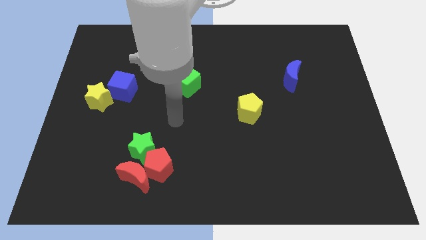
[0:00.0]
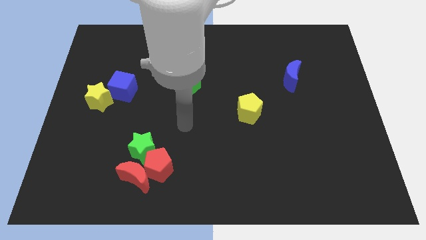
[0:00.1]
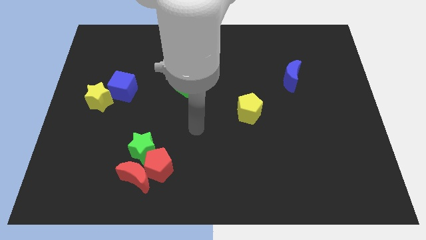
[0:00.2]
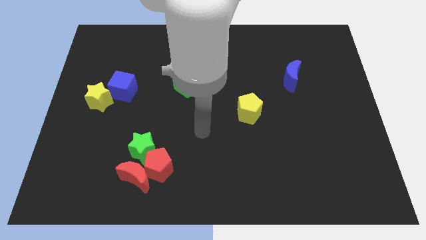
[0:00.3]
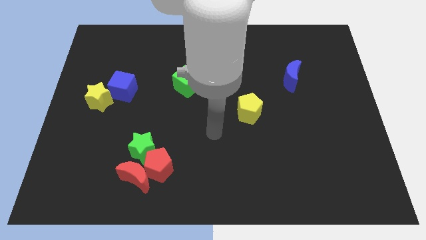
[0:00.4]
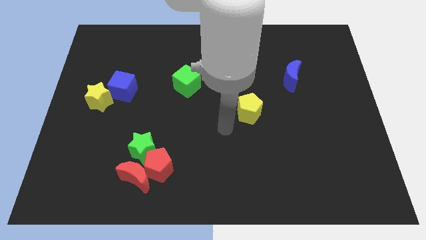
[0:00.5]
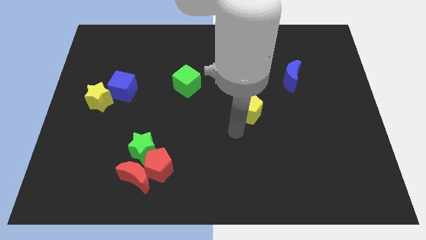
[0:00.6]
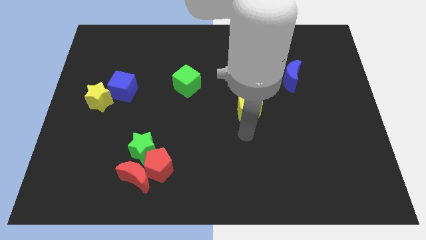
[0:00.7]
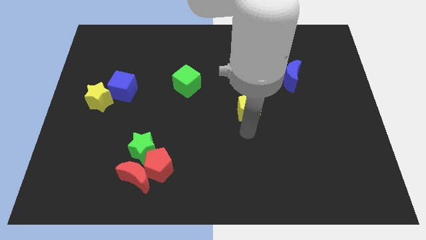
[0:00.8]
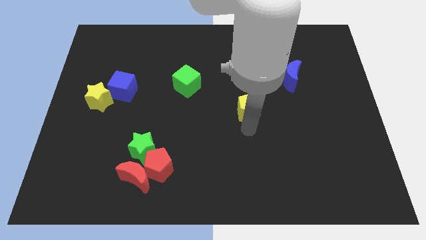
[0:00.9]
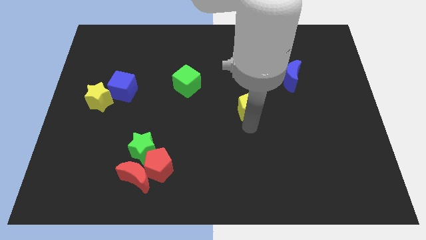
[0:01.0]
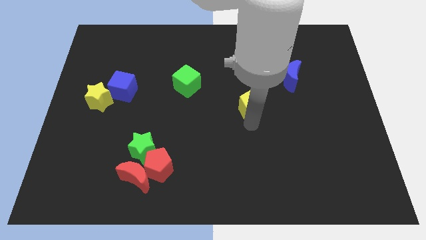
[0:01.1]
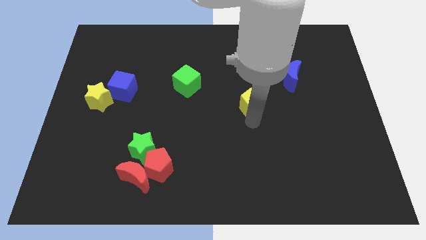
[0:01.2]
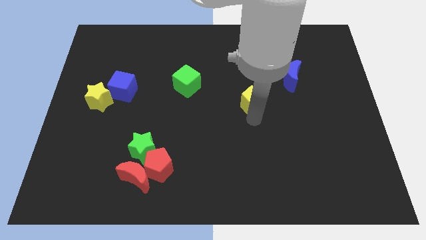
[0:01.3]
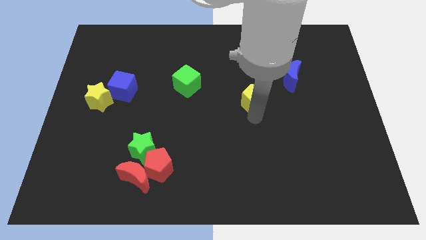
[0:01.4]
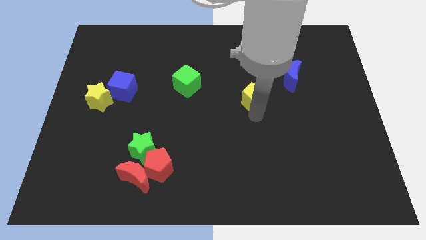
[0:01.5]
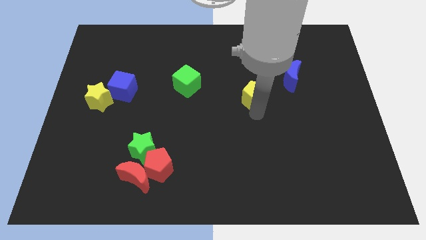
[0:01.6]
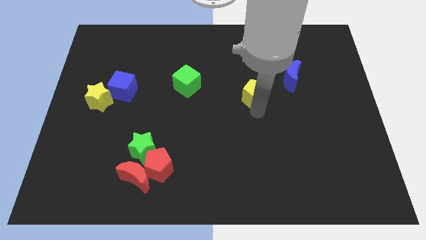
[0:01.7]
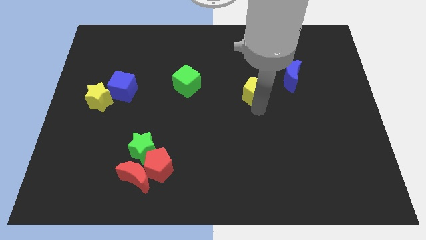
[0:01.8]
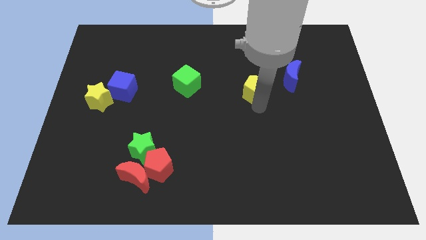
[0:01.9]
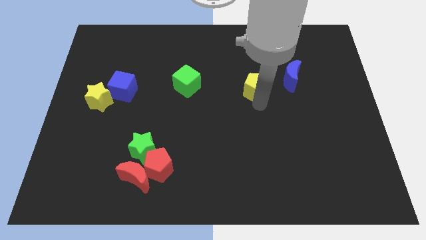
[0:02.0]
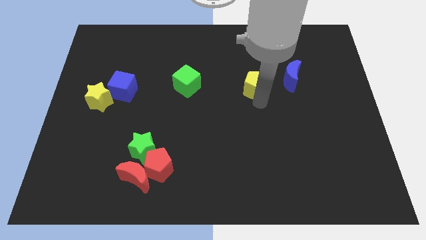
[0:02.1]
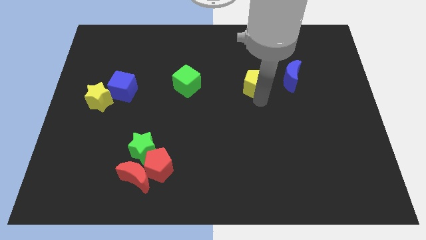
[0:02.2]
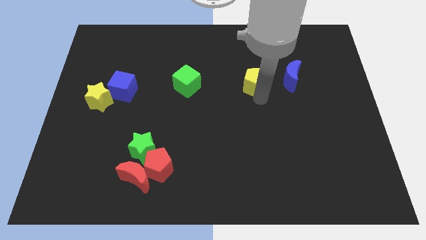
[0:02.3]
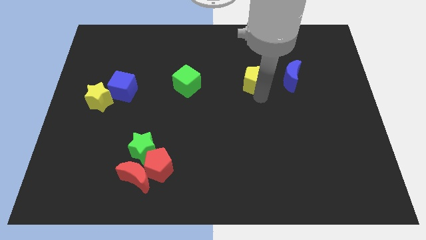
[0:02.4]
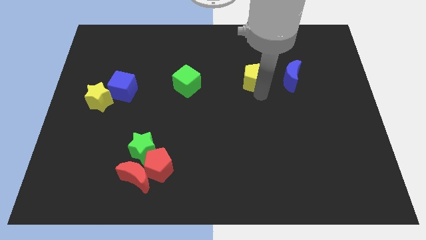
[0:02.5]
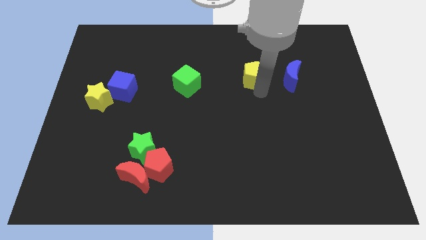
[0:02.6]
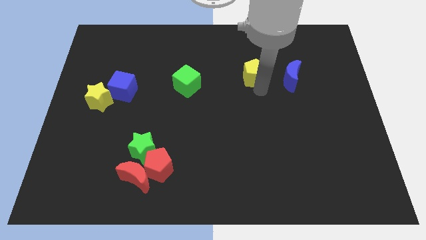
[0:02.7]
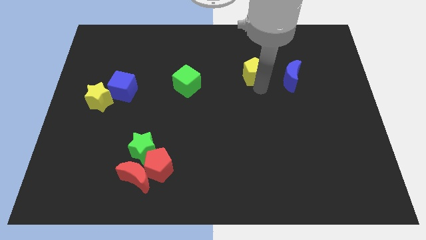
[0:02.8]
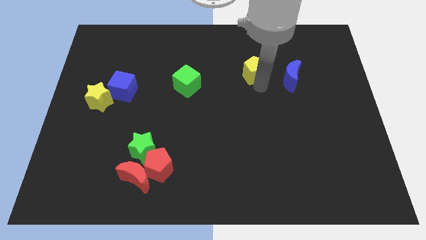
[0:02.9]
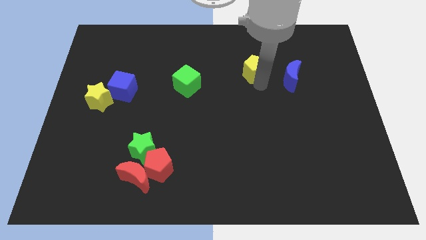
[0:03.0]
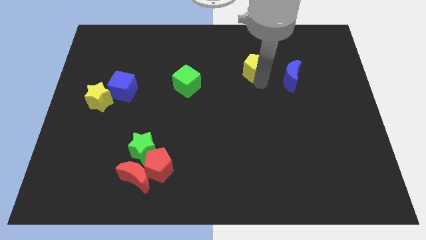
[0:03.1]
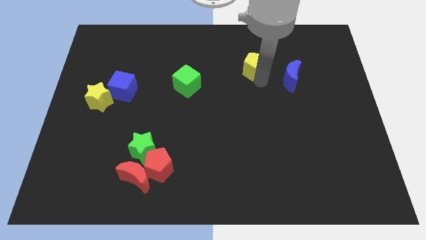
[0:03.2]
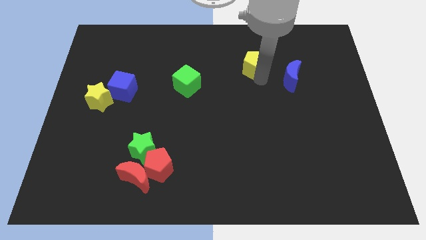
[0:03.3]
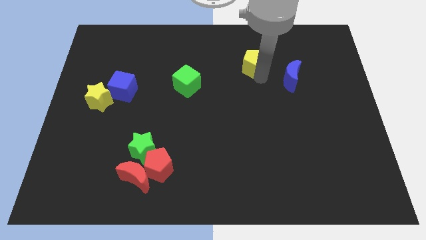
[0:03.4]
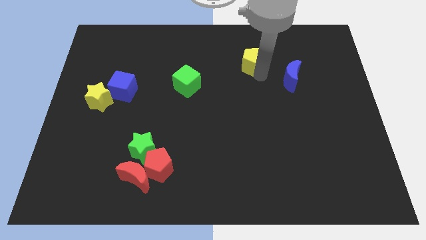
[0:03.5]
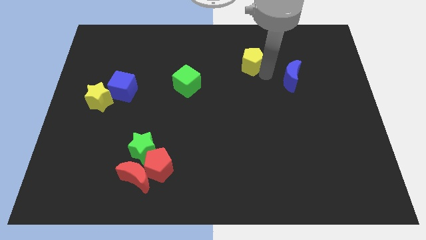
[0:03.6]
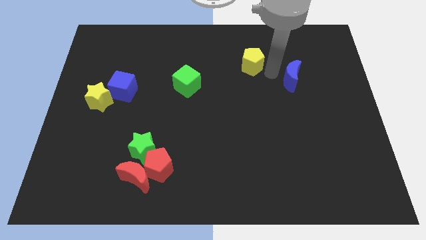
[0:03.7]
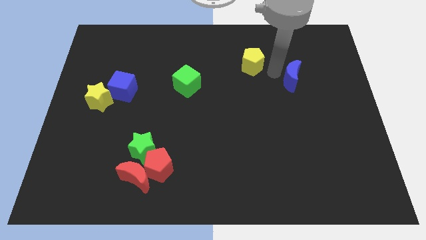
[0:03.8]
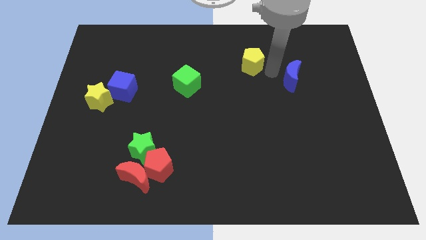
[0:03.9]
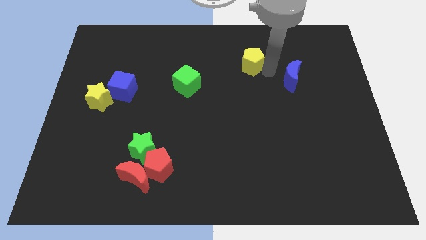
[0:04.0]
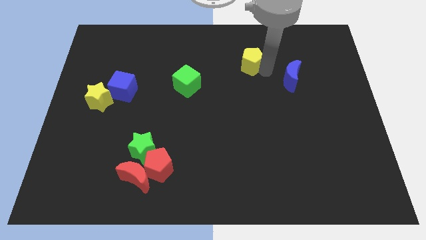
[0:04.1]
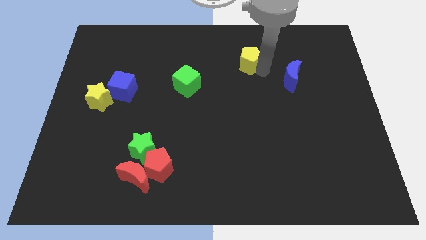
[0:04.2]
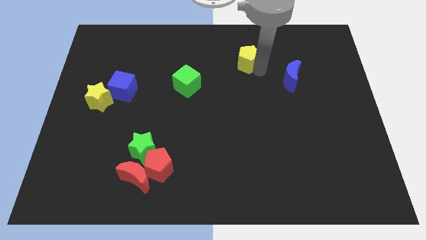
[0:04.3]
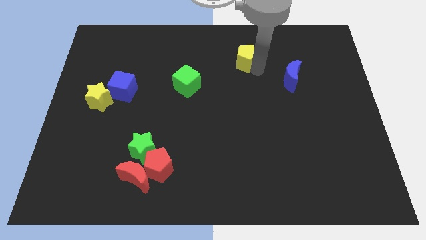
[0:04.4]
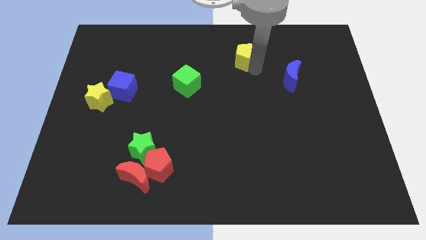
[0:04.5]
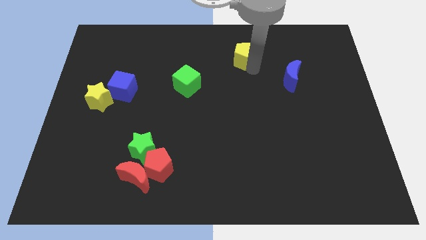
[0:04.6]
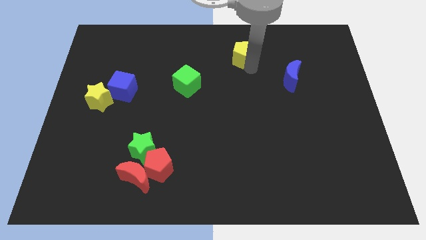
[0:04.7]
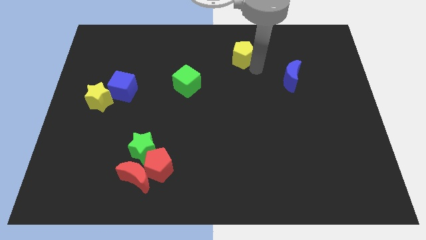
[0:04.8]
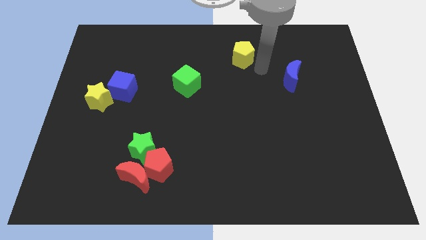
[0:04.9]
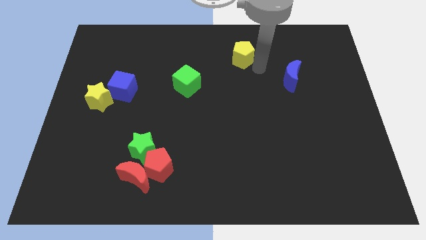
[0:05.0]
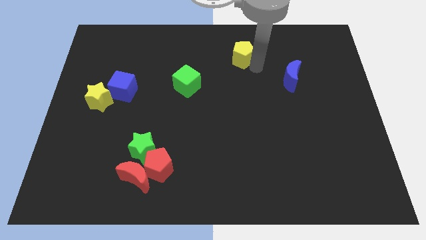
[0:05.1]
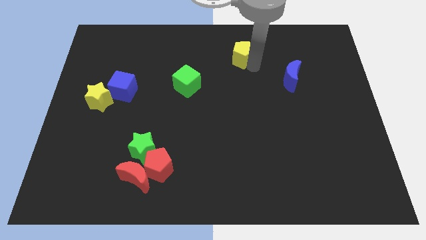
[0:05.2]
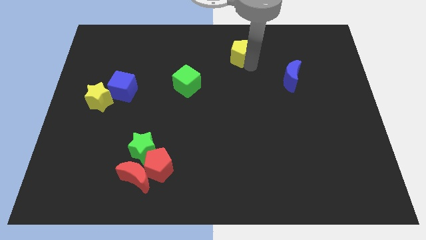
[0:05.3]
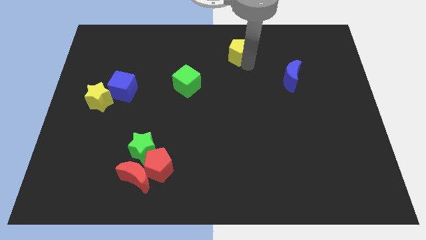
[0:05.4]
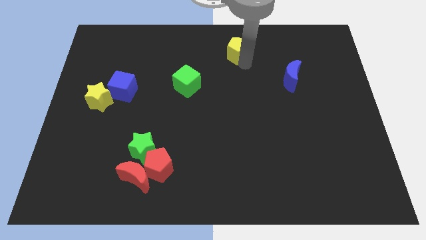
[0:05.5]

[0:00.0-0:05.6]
put the yellow pentagon to the top side

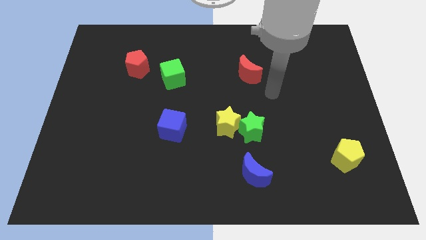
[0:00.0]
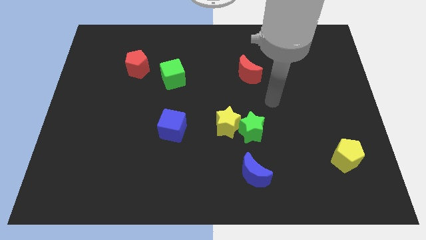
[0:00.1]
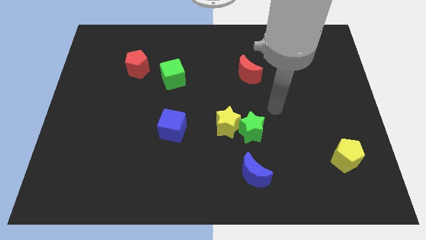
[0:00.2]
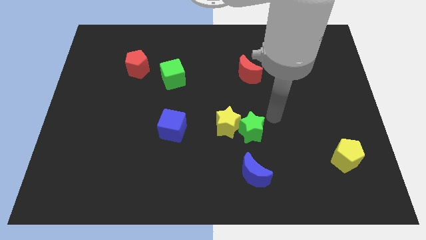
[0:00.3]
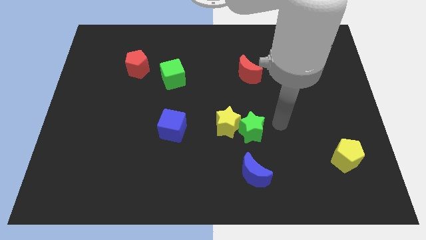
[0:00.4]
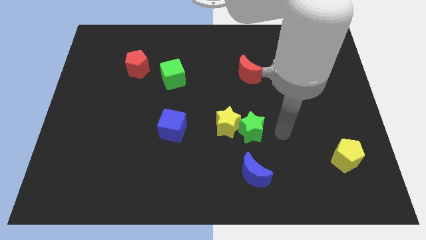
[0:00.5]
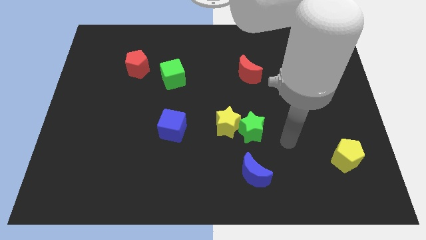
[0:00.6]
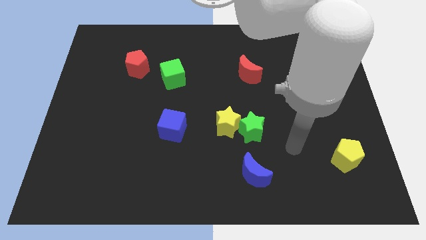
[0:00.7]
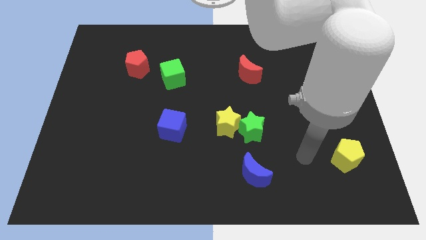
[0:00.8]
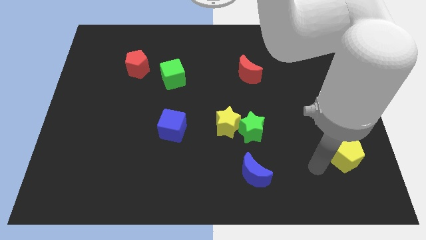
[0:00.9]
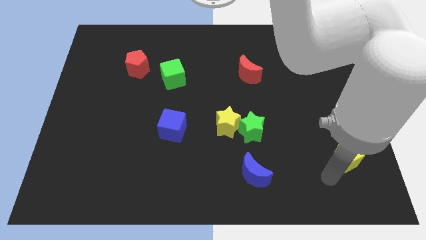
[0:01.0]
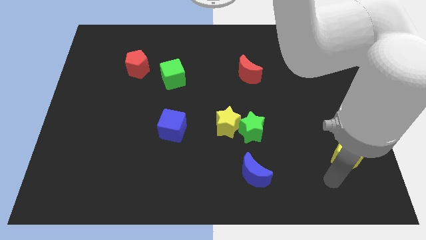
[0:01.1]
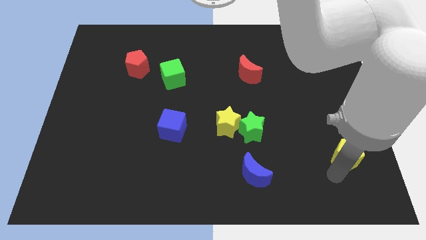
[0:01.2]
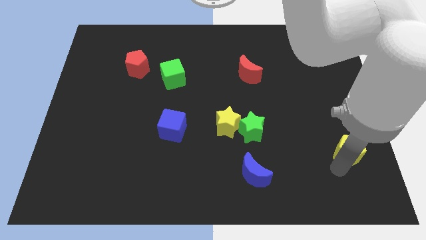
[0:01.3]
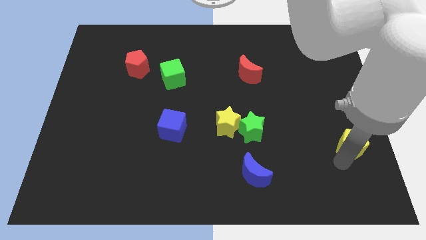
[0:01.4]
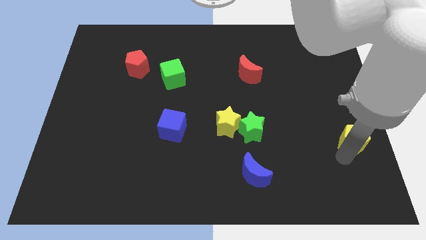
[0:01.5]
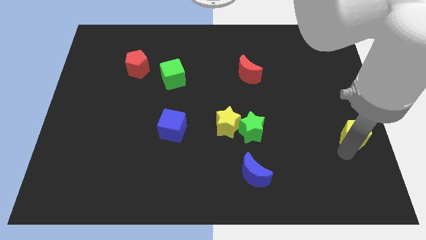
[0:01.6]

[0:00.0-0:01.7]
slide the yellow pentagon to the center right
